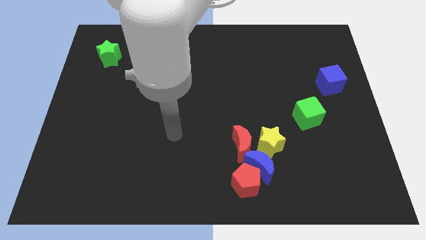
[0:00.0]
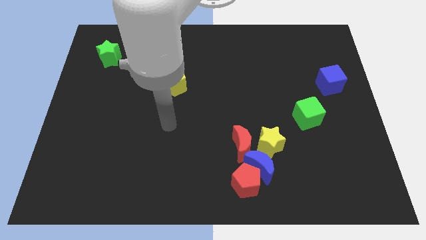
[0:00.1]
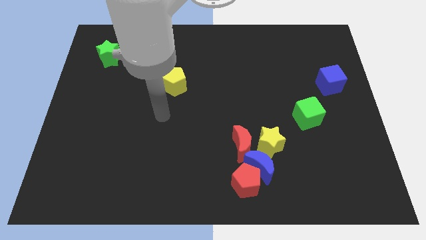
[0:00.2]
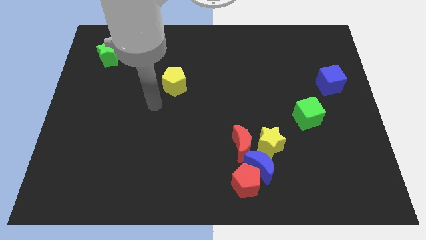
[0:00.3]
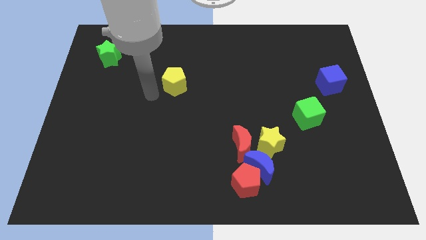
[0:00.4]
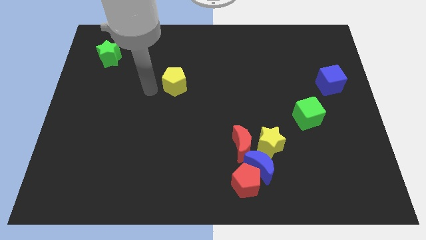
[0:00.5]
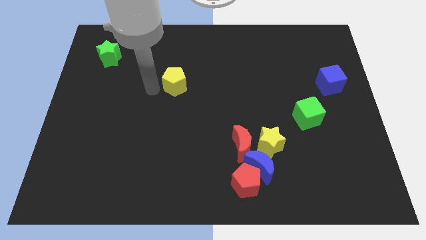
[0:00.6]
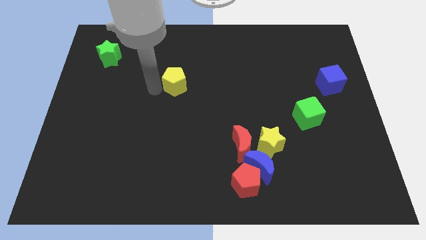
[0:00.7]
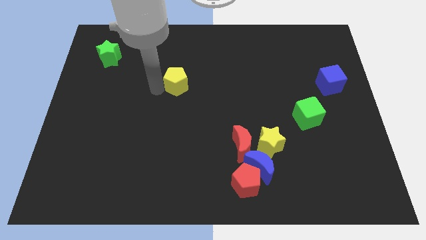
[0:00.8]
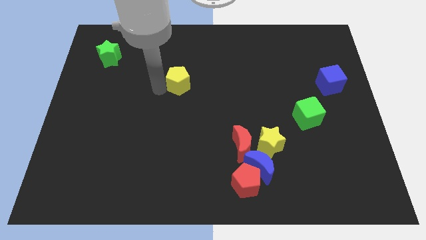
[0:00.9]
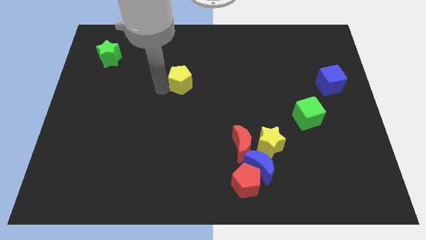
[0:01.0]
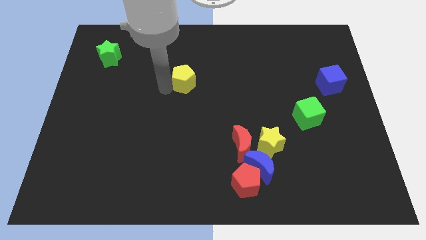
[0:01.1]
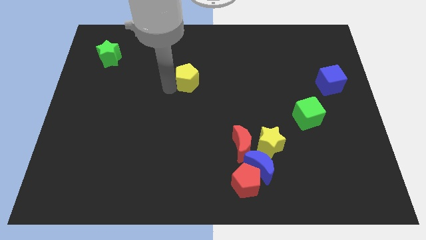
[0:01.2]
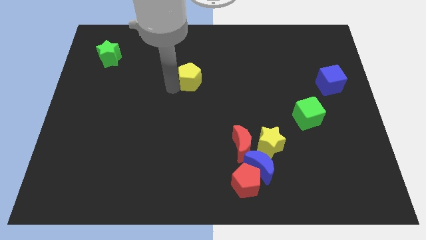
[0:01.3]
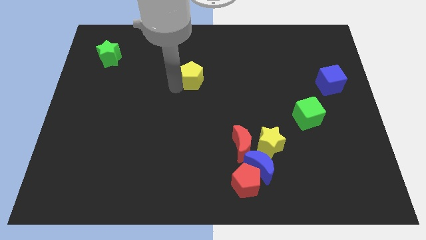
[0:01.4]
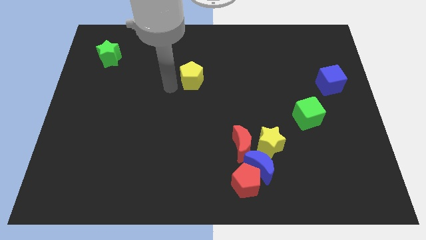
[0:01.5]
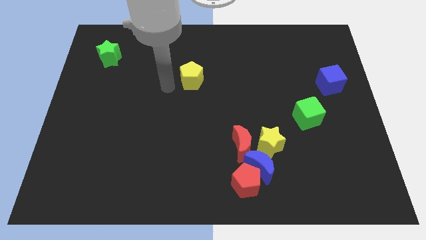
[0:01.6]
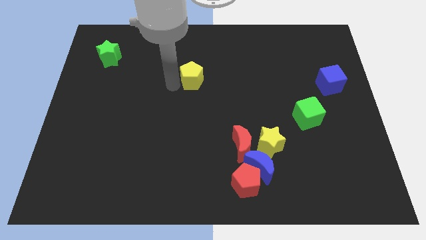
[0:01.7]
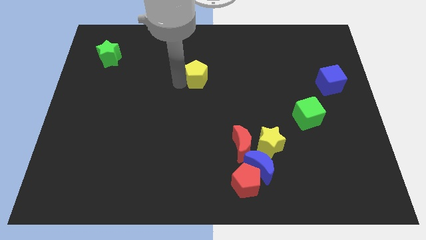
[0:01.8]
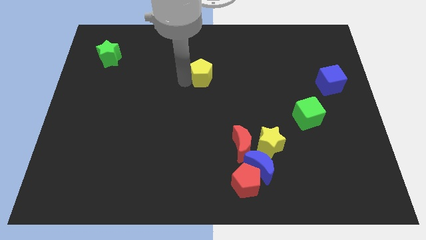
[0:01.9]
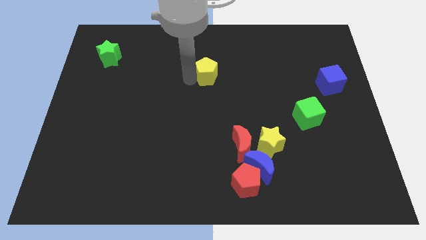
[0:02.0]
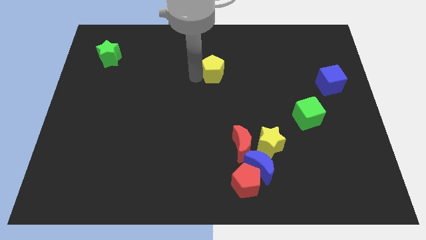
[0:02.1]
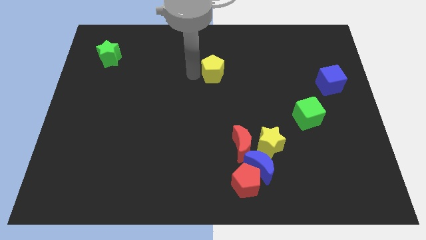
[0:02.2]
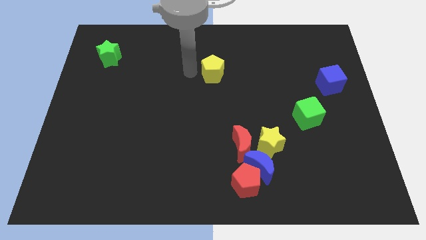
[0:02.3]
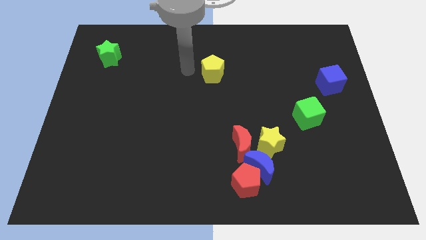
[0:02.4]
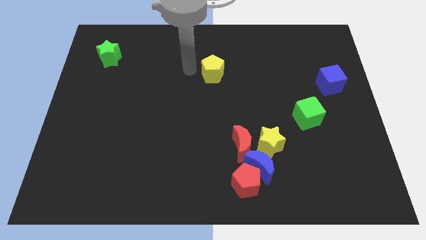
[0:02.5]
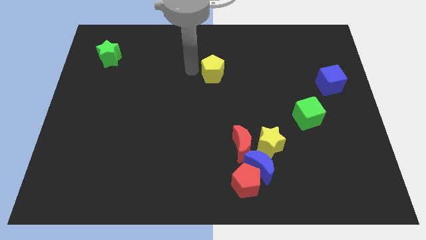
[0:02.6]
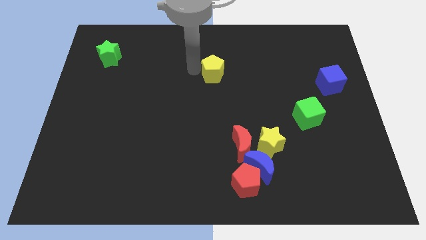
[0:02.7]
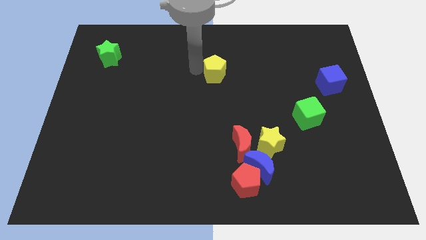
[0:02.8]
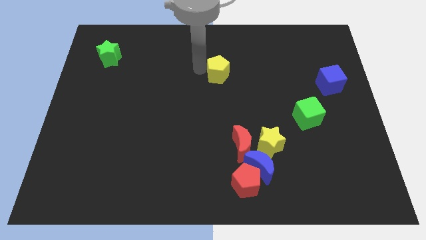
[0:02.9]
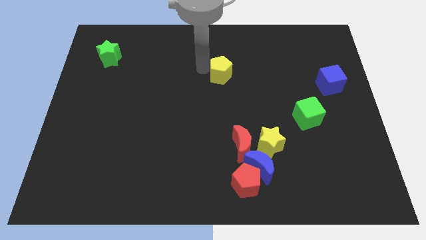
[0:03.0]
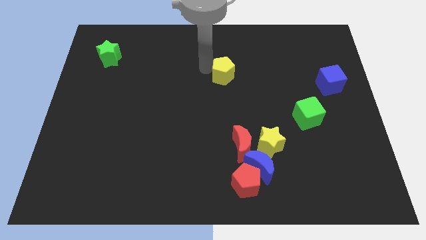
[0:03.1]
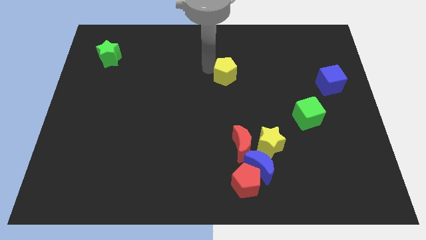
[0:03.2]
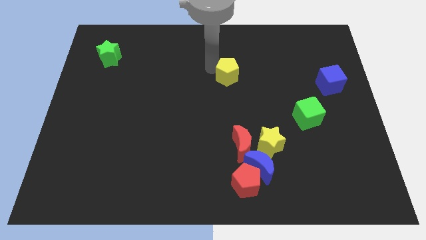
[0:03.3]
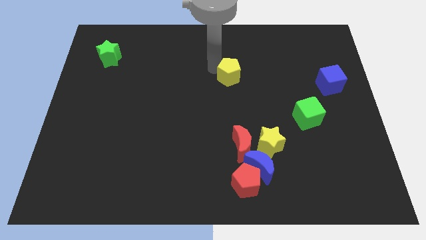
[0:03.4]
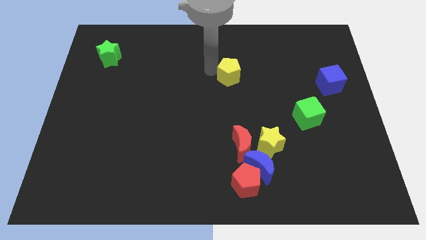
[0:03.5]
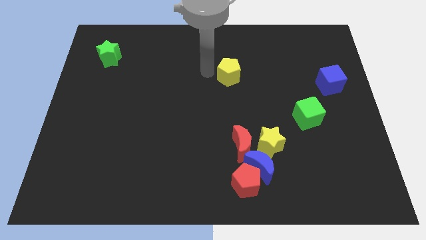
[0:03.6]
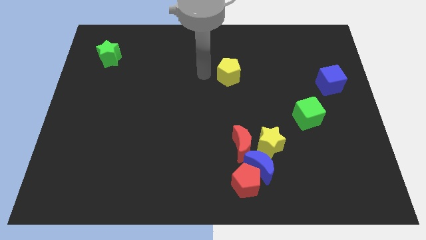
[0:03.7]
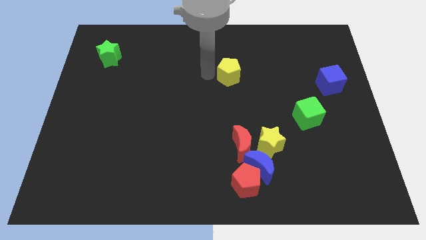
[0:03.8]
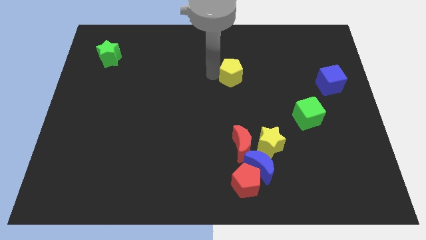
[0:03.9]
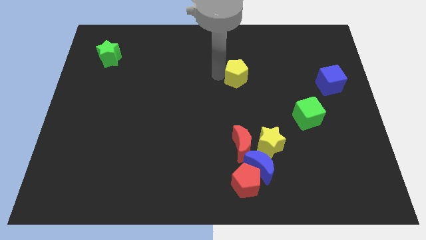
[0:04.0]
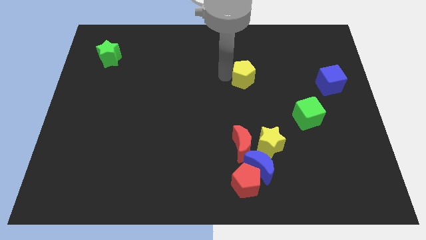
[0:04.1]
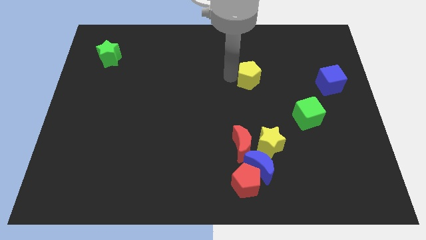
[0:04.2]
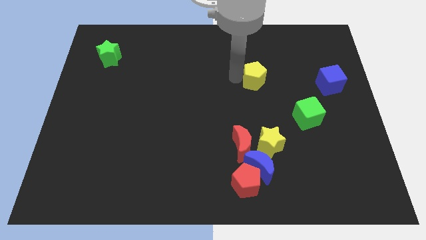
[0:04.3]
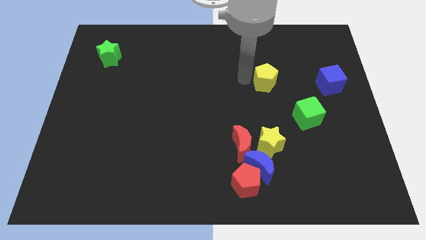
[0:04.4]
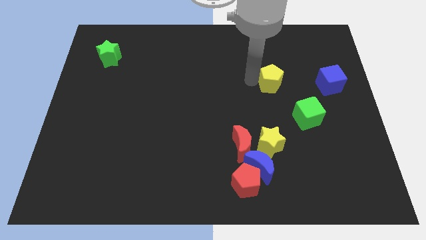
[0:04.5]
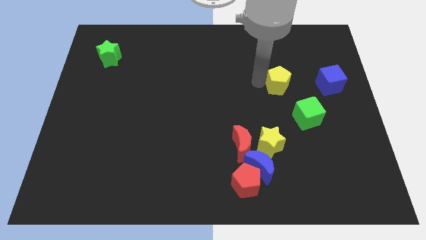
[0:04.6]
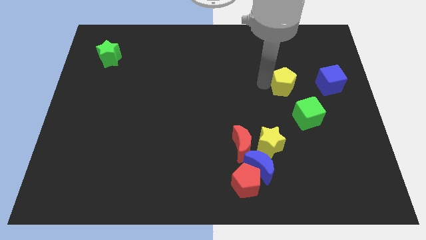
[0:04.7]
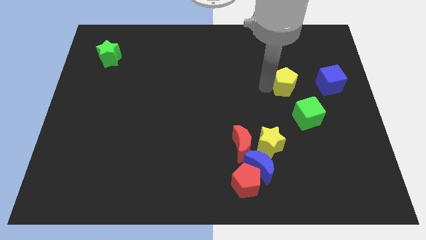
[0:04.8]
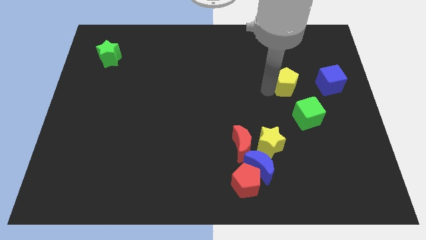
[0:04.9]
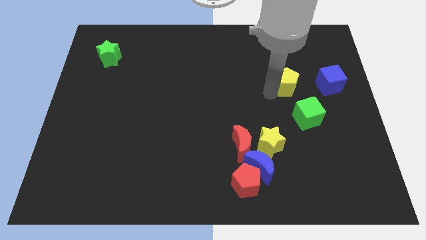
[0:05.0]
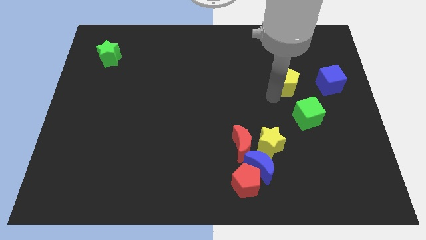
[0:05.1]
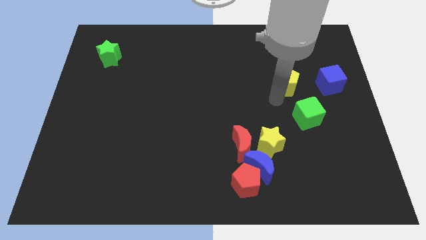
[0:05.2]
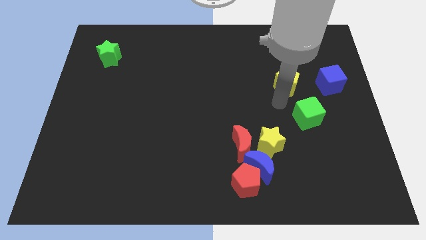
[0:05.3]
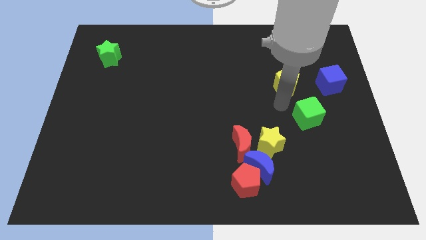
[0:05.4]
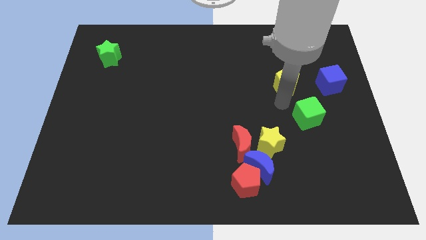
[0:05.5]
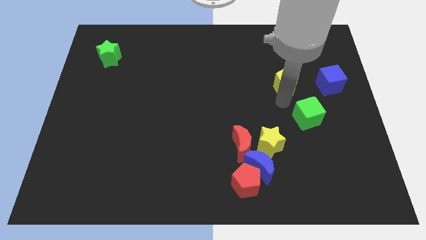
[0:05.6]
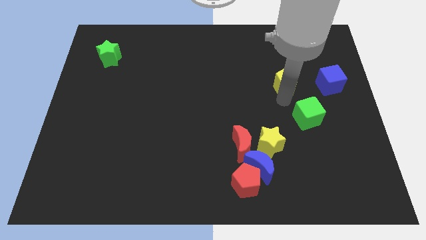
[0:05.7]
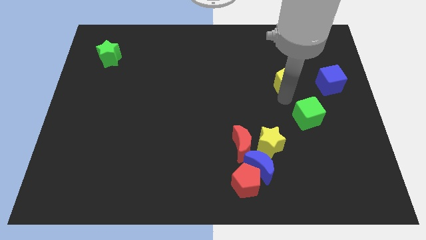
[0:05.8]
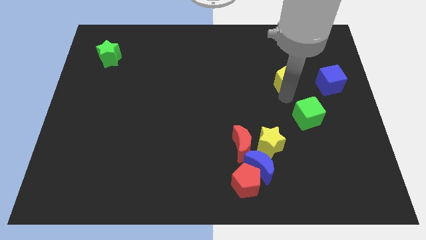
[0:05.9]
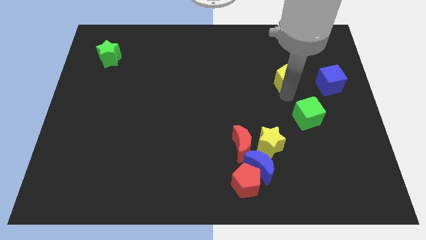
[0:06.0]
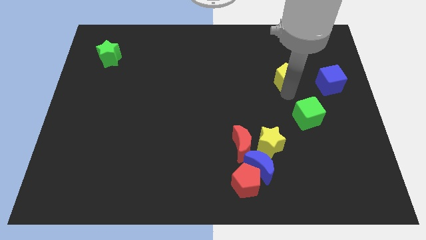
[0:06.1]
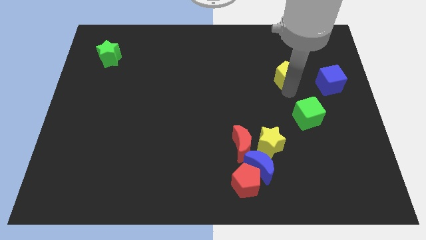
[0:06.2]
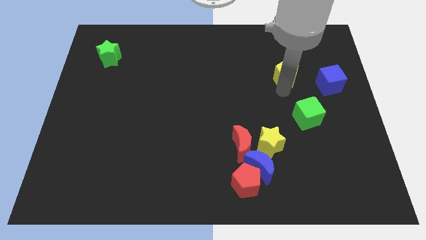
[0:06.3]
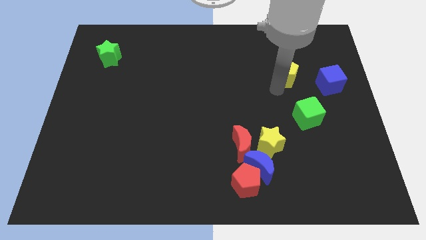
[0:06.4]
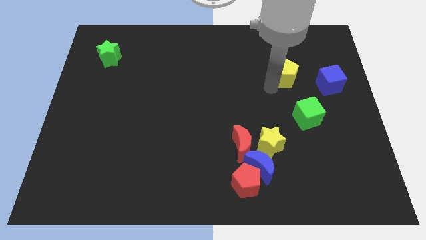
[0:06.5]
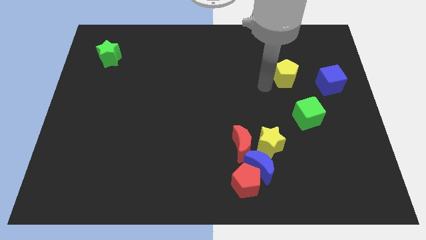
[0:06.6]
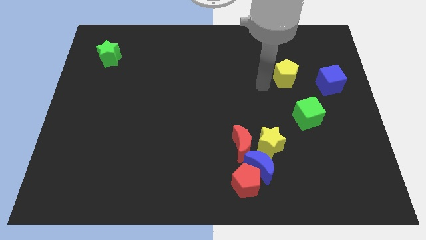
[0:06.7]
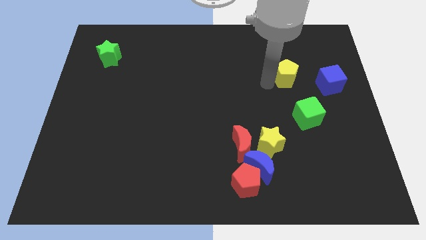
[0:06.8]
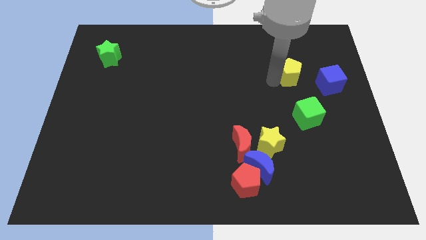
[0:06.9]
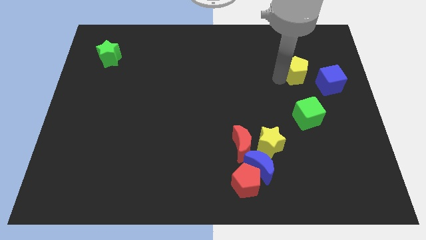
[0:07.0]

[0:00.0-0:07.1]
put the yellow pentagon to the top left side of the blue cube
